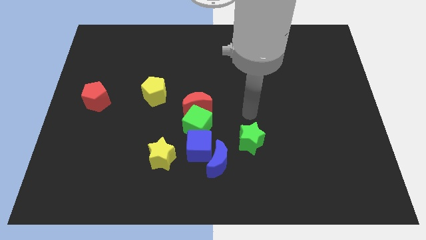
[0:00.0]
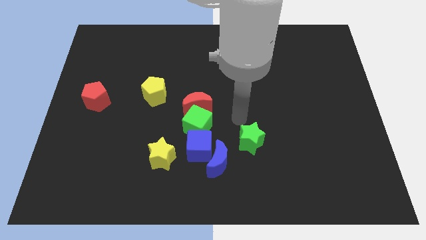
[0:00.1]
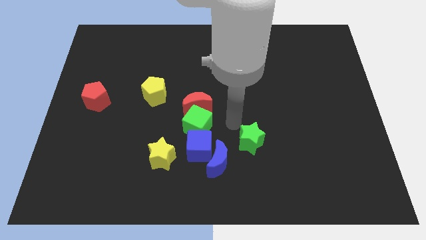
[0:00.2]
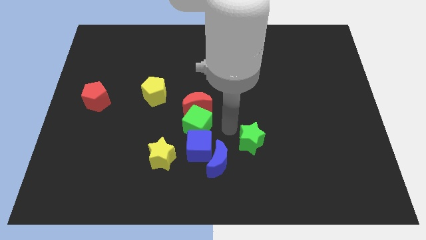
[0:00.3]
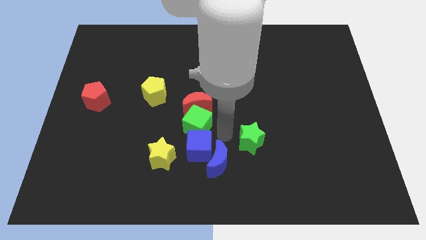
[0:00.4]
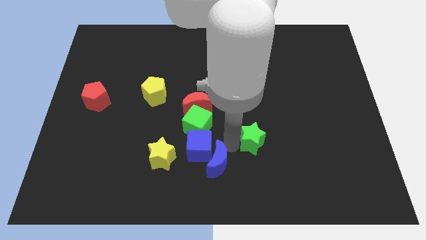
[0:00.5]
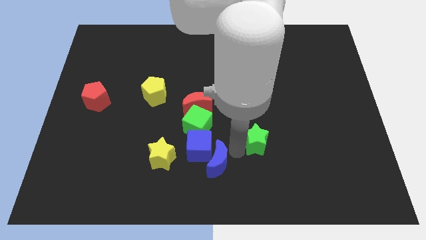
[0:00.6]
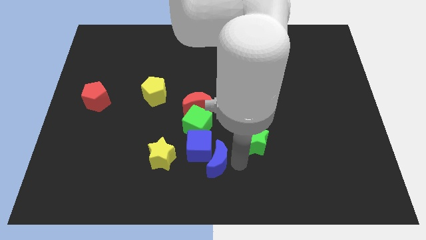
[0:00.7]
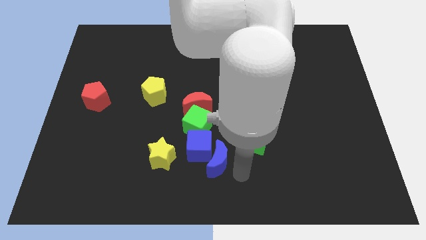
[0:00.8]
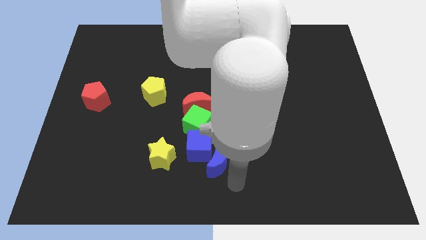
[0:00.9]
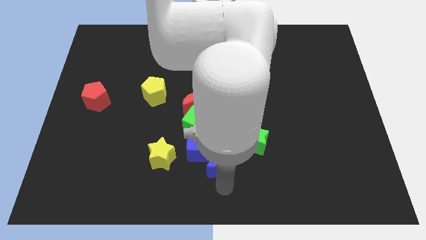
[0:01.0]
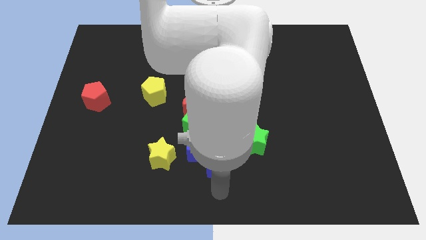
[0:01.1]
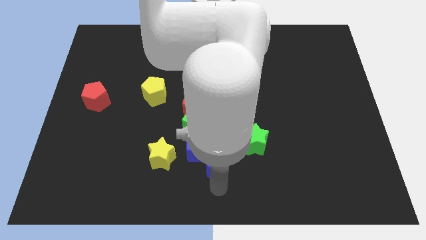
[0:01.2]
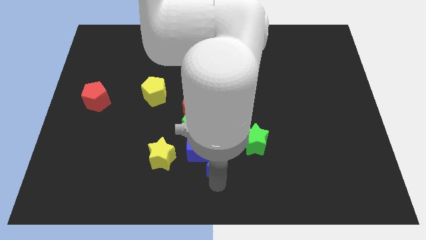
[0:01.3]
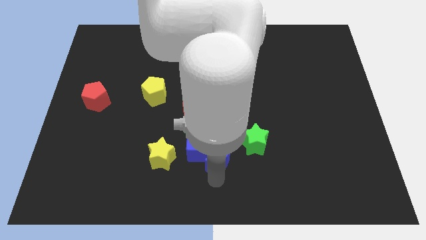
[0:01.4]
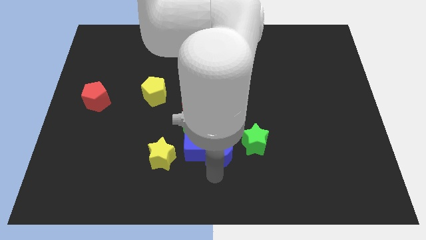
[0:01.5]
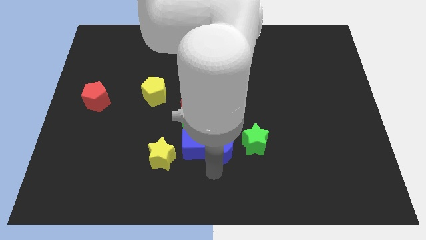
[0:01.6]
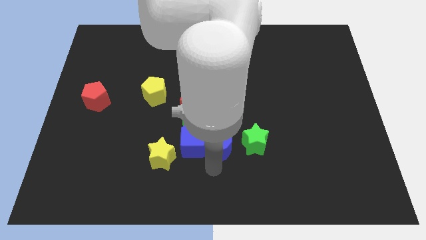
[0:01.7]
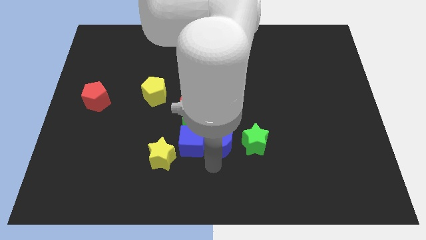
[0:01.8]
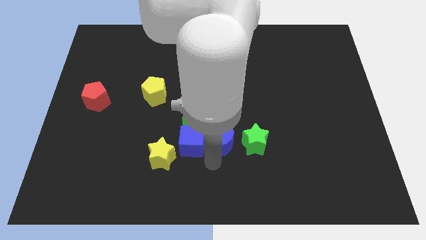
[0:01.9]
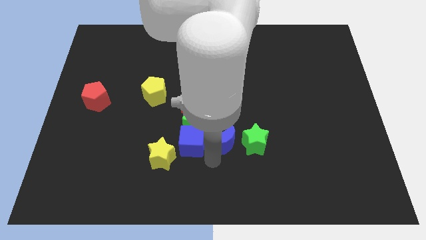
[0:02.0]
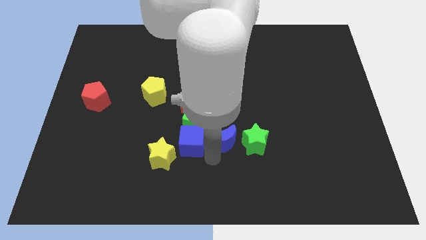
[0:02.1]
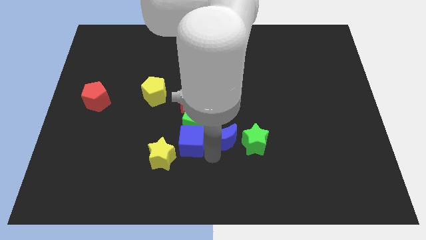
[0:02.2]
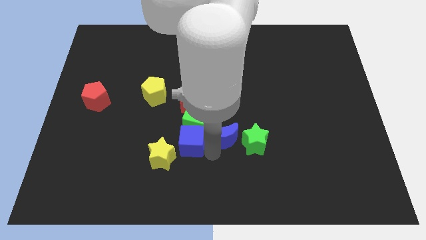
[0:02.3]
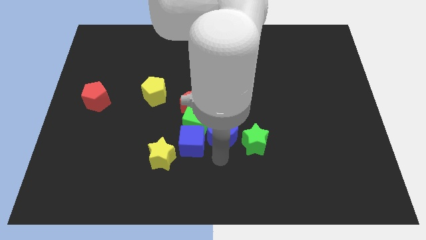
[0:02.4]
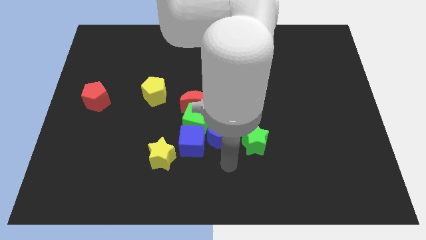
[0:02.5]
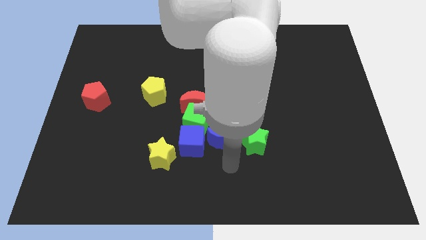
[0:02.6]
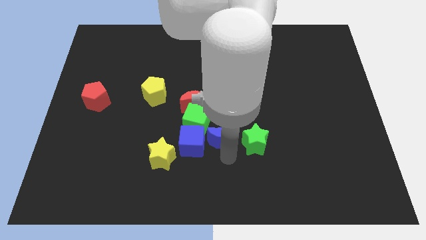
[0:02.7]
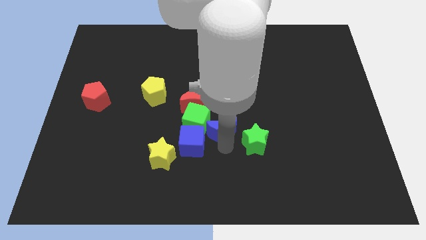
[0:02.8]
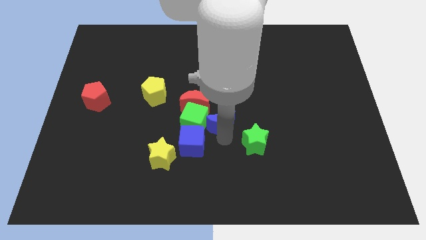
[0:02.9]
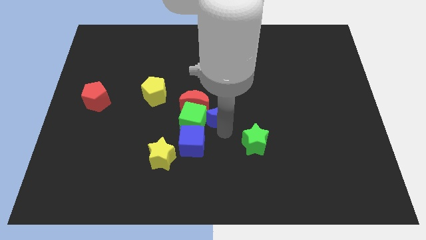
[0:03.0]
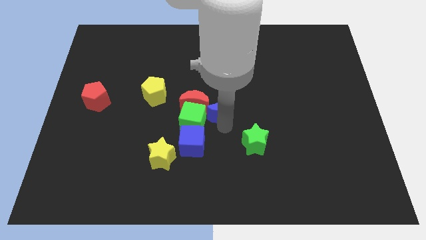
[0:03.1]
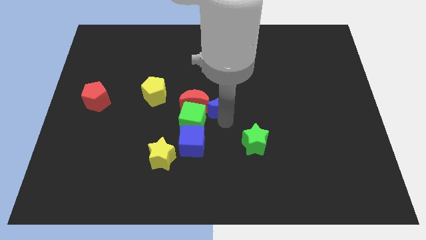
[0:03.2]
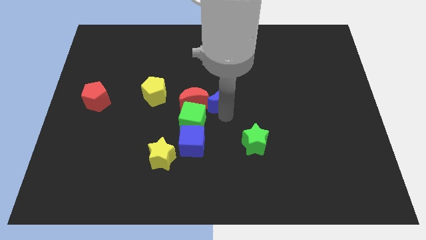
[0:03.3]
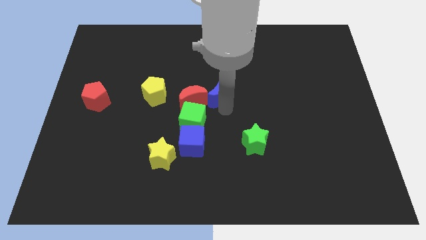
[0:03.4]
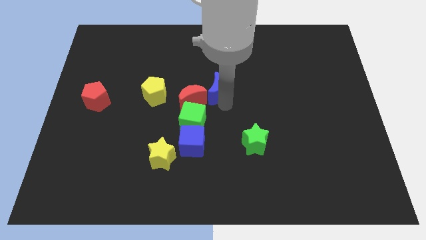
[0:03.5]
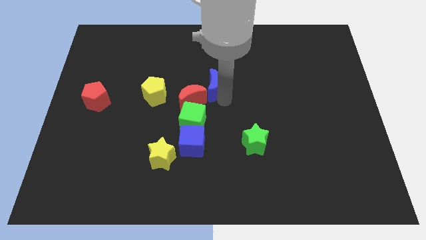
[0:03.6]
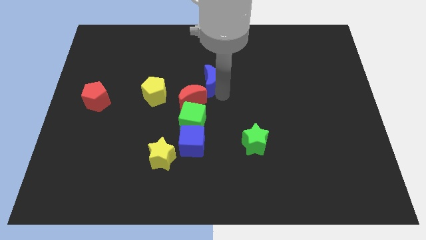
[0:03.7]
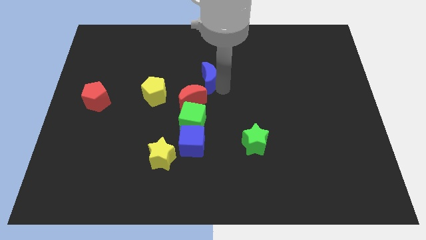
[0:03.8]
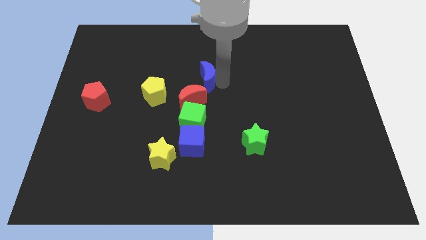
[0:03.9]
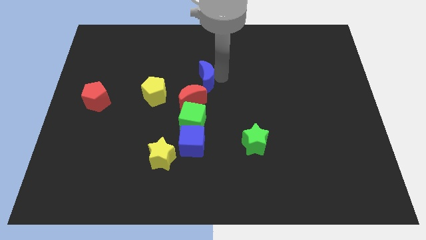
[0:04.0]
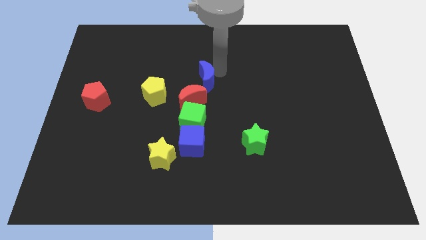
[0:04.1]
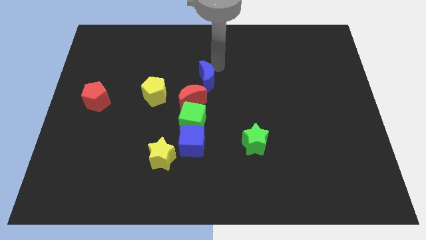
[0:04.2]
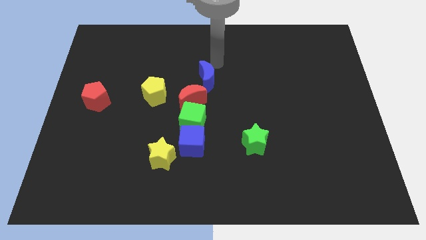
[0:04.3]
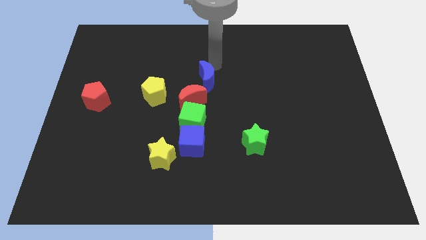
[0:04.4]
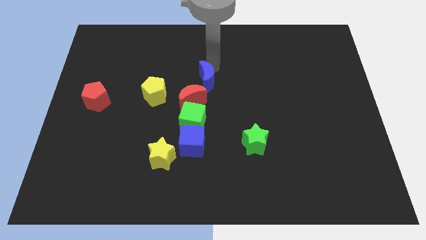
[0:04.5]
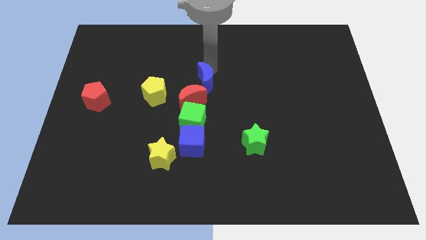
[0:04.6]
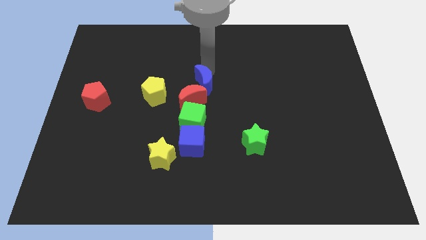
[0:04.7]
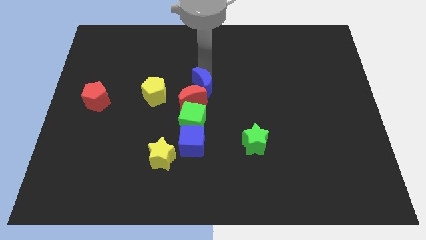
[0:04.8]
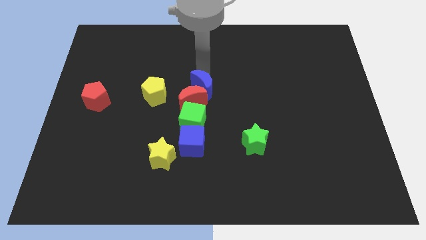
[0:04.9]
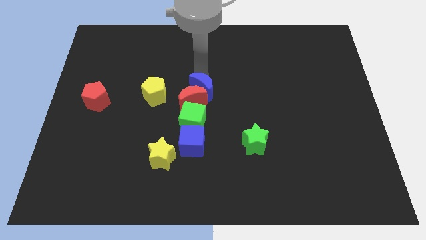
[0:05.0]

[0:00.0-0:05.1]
push the blue moon to the top side of the blue cube

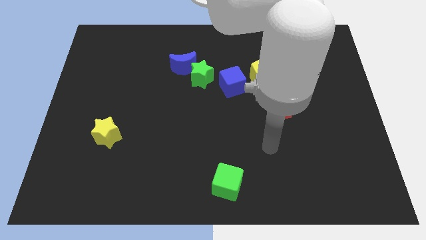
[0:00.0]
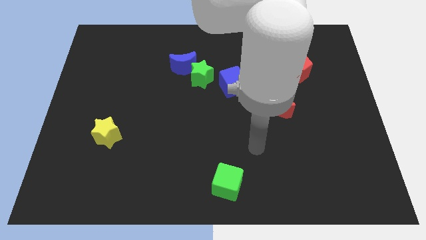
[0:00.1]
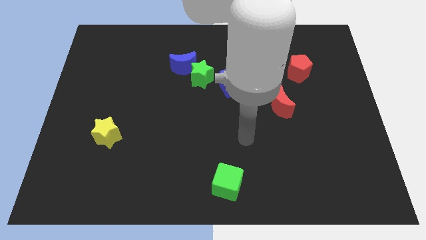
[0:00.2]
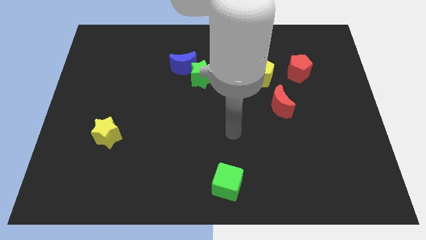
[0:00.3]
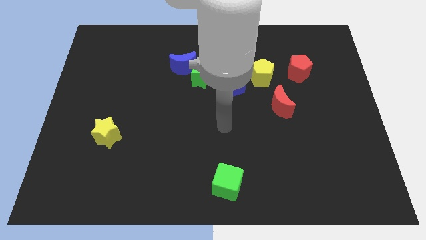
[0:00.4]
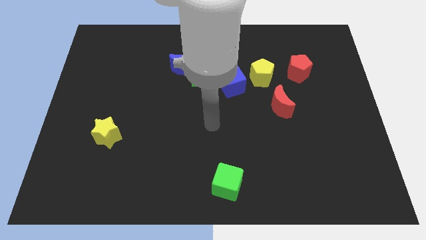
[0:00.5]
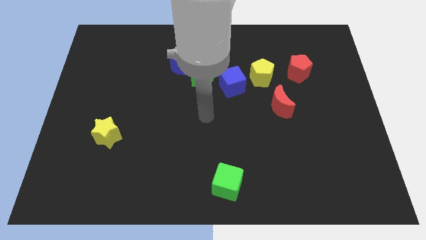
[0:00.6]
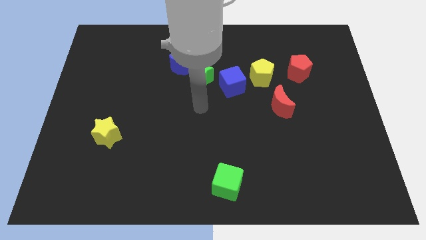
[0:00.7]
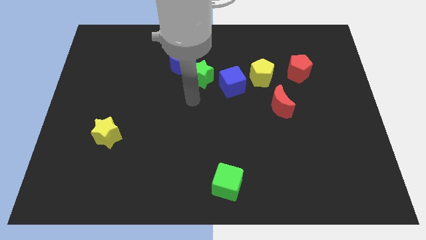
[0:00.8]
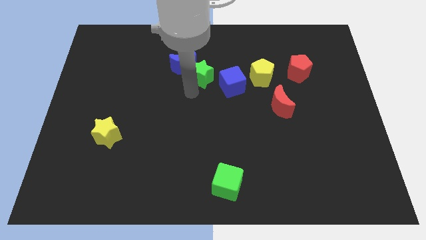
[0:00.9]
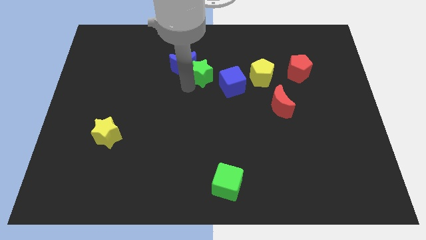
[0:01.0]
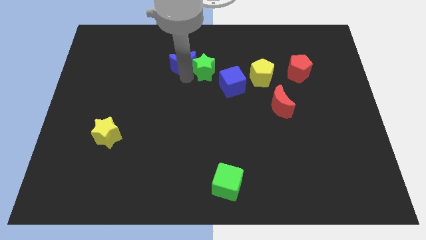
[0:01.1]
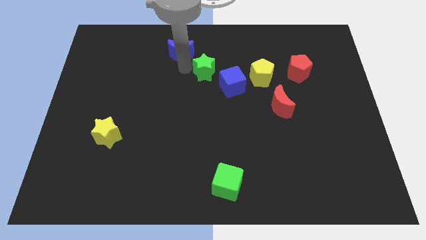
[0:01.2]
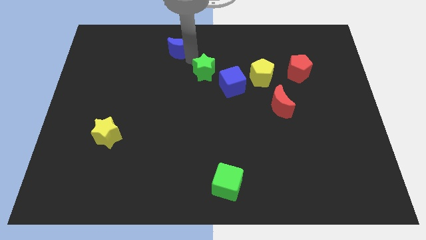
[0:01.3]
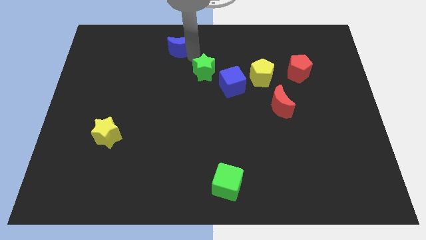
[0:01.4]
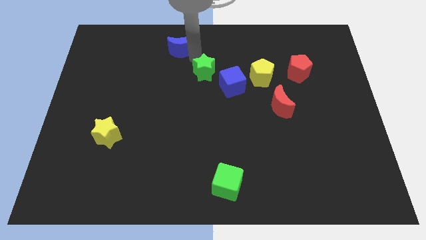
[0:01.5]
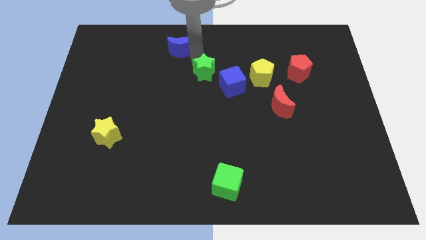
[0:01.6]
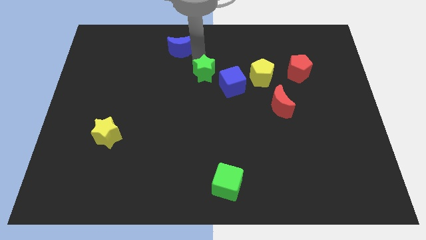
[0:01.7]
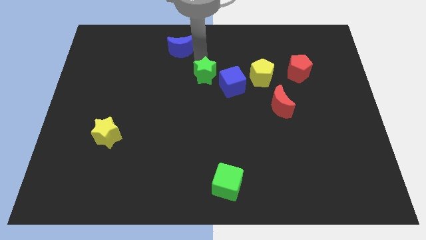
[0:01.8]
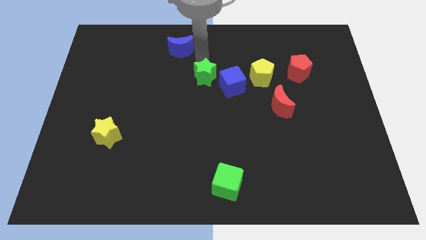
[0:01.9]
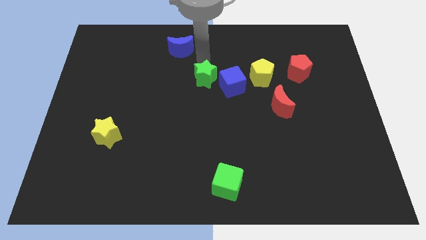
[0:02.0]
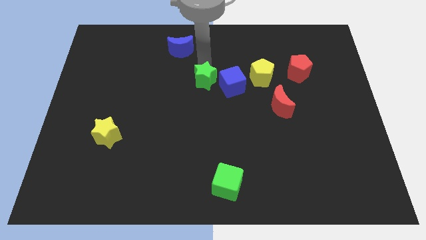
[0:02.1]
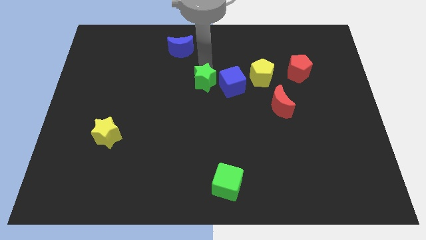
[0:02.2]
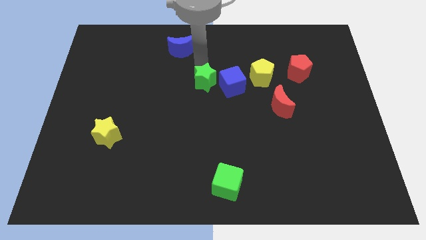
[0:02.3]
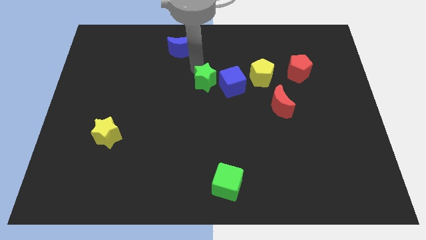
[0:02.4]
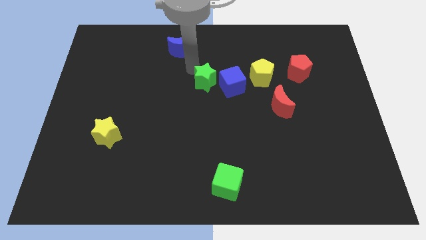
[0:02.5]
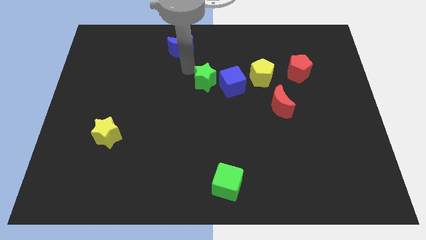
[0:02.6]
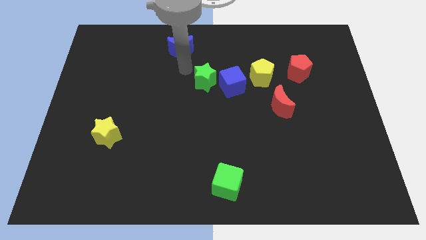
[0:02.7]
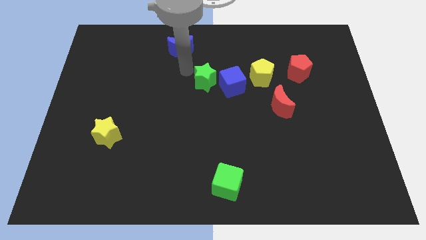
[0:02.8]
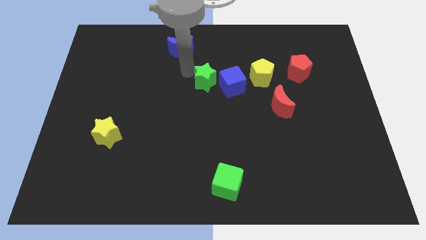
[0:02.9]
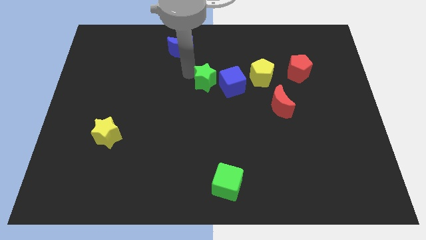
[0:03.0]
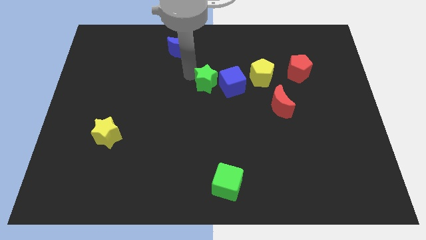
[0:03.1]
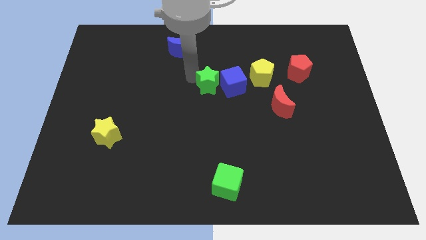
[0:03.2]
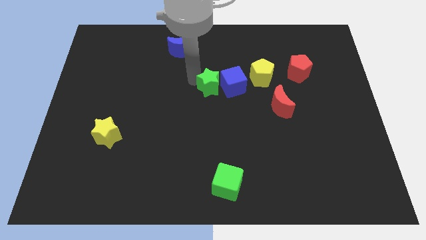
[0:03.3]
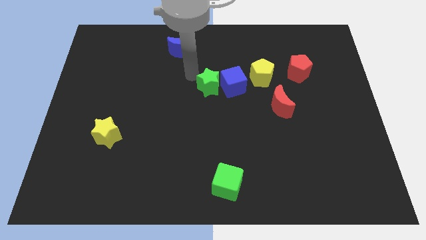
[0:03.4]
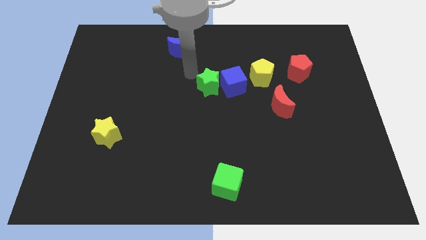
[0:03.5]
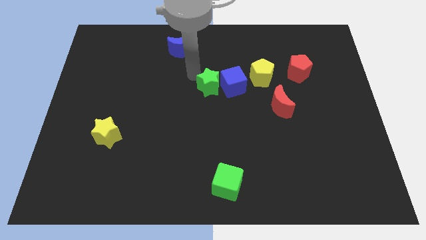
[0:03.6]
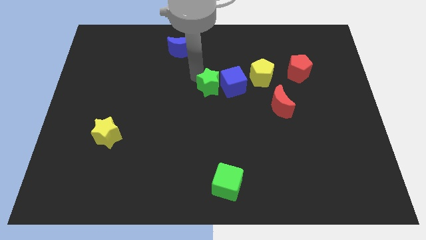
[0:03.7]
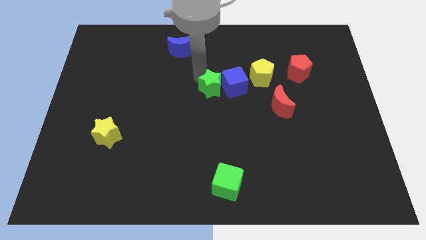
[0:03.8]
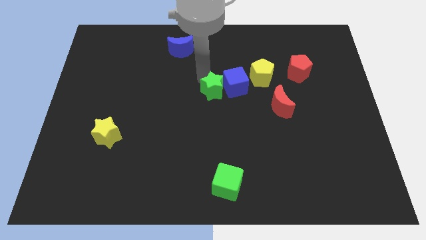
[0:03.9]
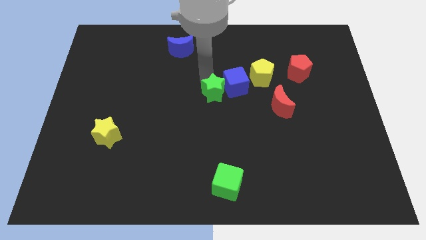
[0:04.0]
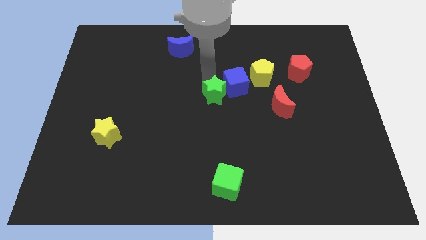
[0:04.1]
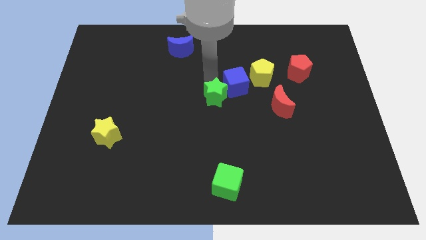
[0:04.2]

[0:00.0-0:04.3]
push the green star to the left of the red moon
